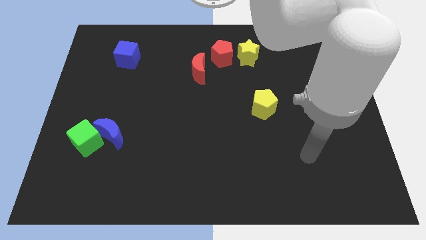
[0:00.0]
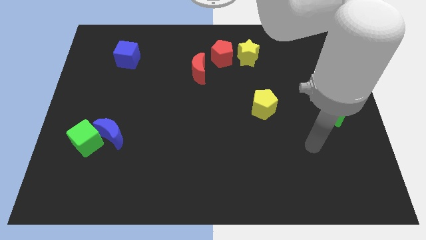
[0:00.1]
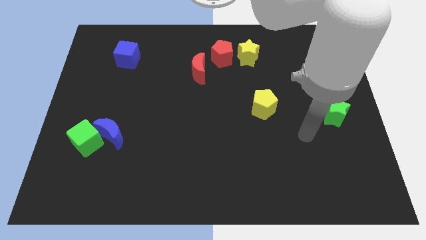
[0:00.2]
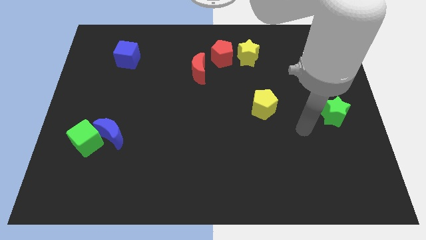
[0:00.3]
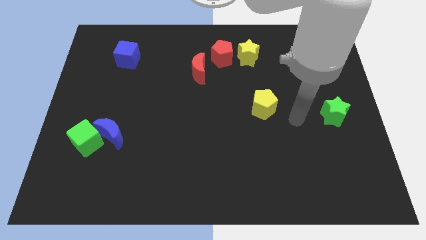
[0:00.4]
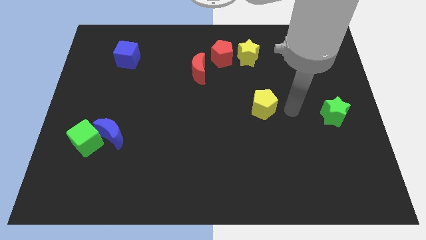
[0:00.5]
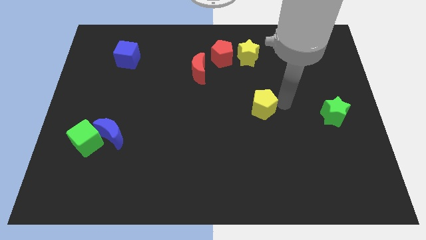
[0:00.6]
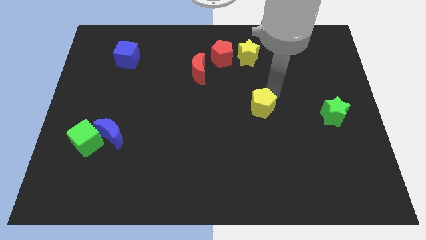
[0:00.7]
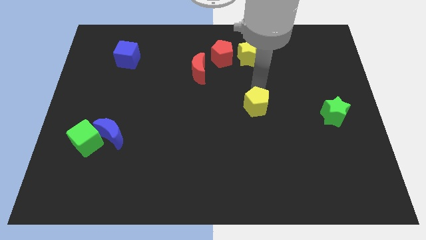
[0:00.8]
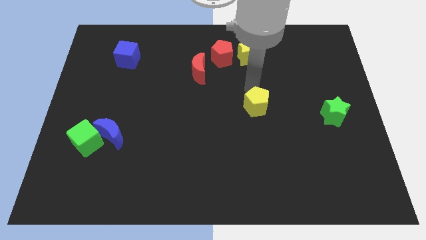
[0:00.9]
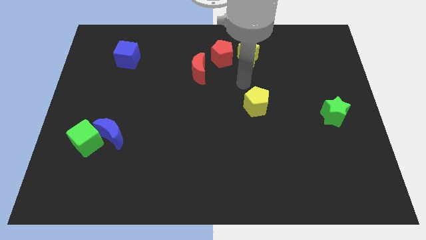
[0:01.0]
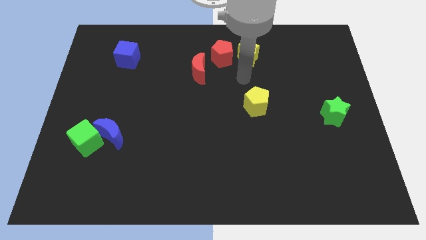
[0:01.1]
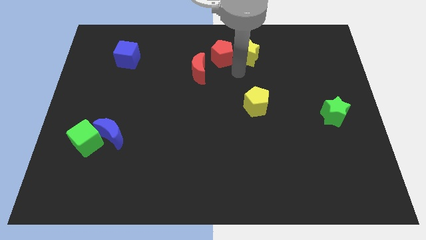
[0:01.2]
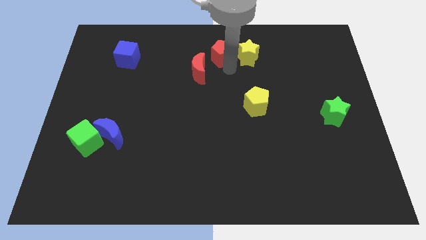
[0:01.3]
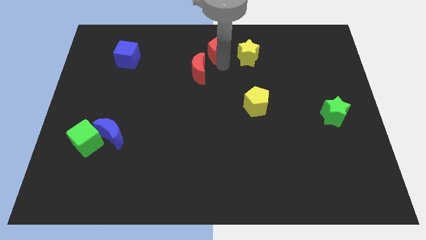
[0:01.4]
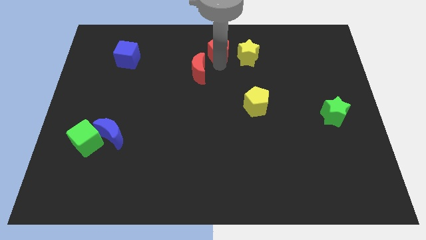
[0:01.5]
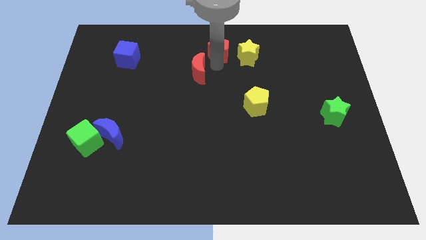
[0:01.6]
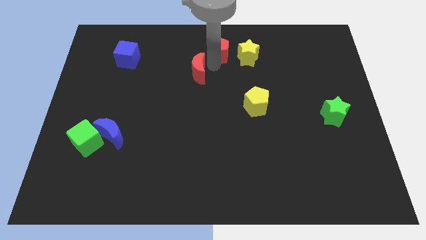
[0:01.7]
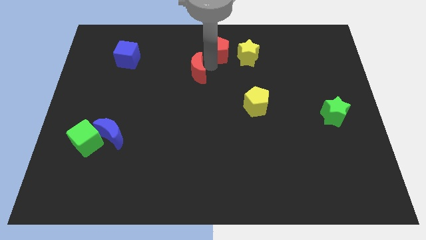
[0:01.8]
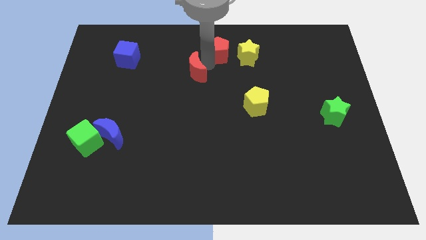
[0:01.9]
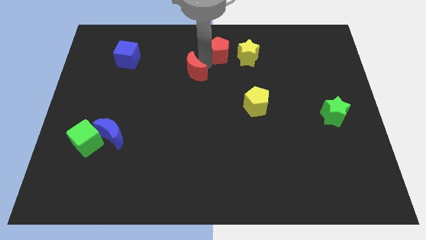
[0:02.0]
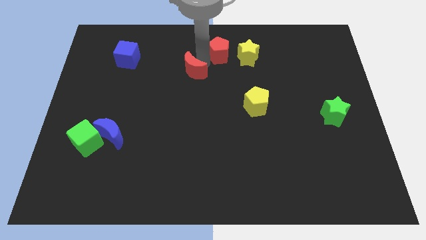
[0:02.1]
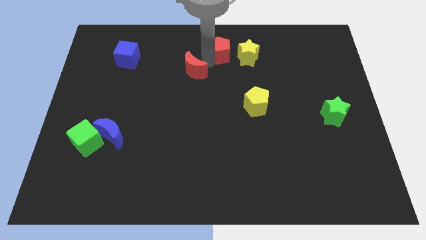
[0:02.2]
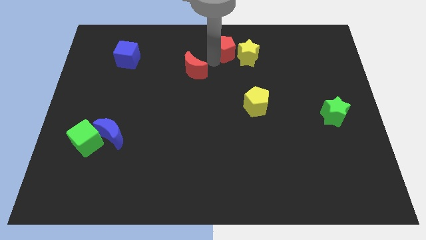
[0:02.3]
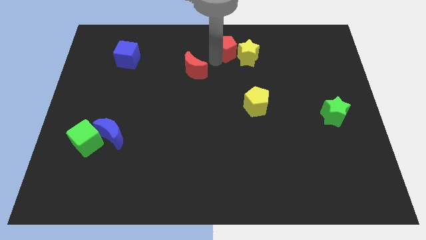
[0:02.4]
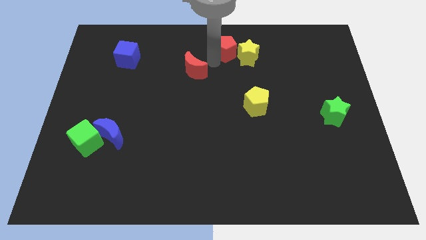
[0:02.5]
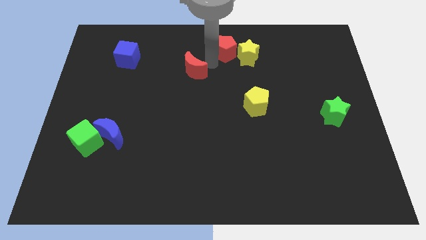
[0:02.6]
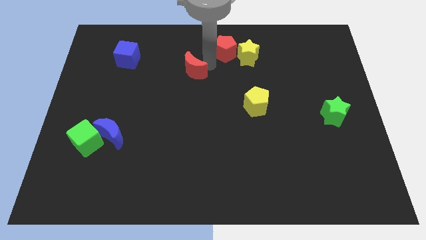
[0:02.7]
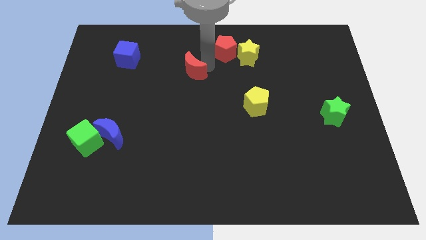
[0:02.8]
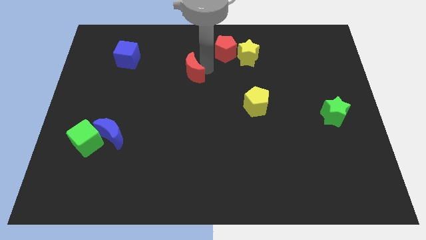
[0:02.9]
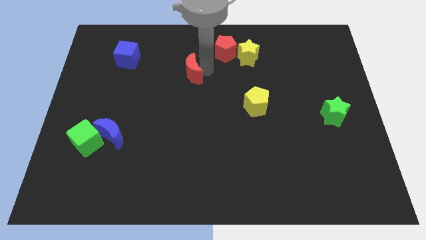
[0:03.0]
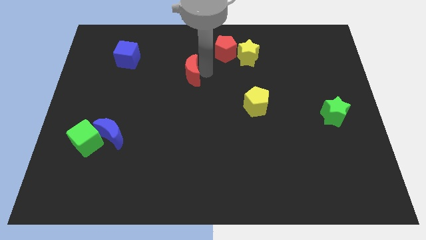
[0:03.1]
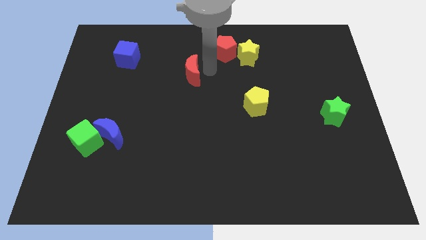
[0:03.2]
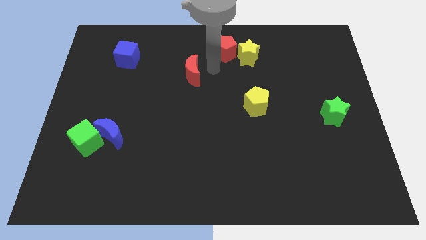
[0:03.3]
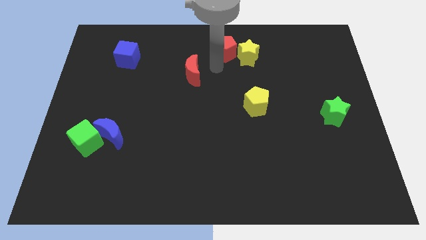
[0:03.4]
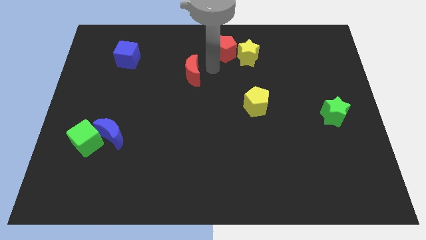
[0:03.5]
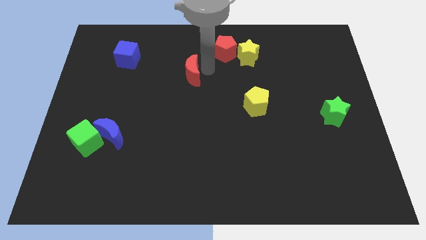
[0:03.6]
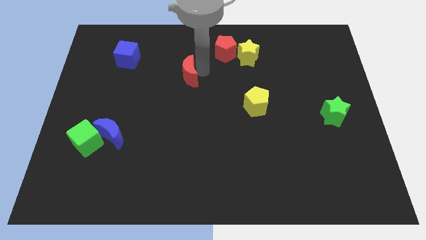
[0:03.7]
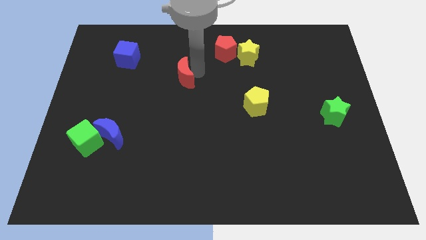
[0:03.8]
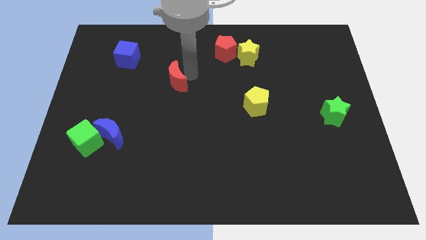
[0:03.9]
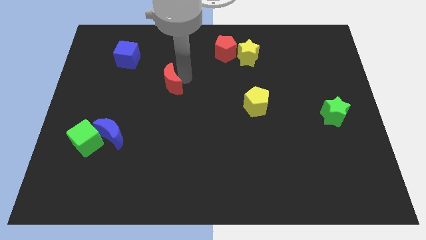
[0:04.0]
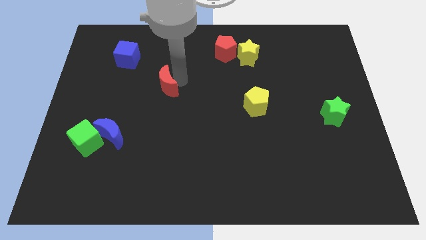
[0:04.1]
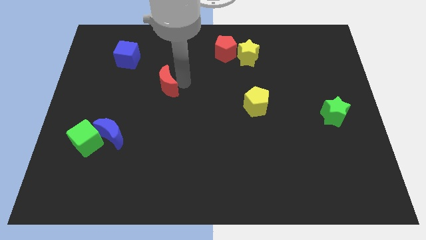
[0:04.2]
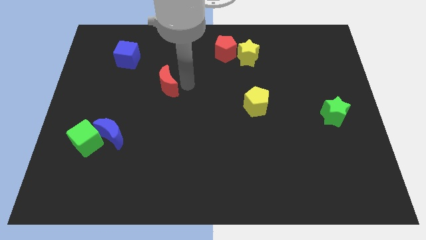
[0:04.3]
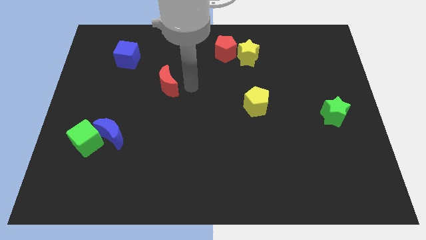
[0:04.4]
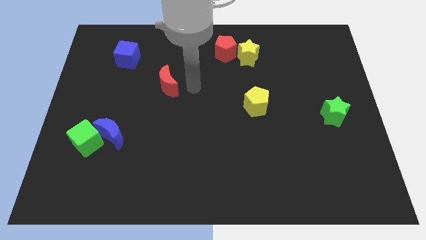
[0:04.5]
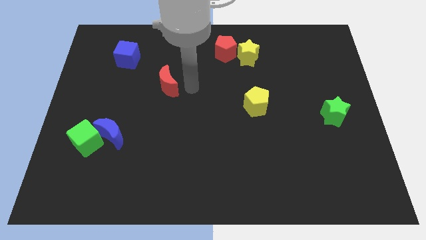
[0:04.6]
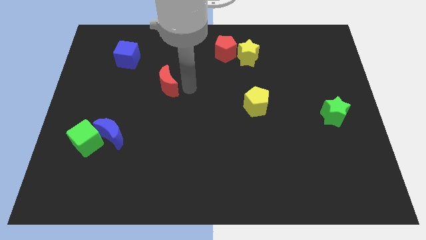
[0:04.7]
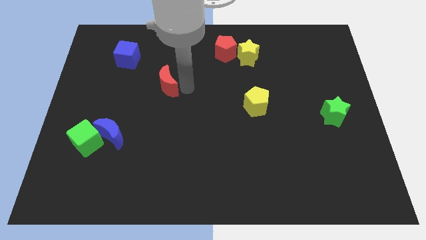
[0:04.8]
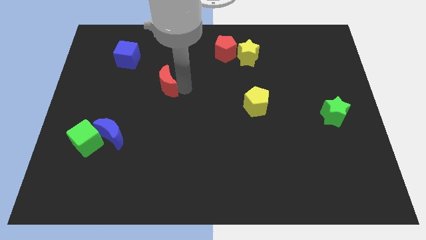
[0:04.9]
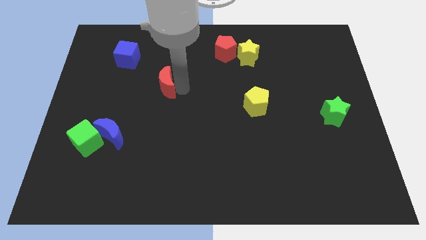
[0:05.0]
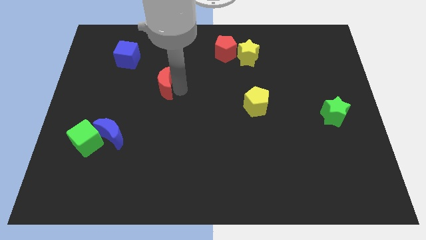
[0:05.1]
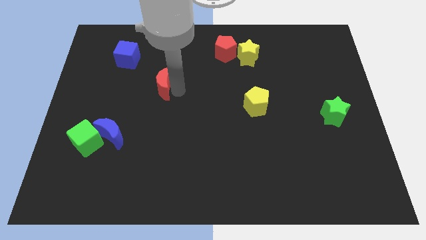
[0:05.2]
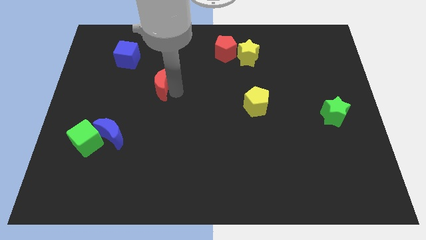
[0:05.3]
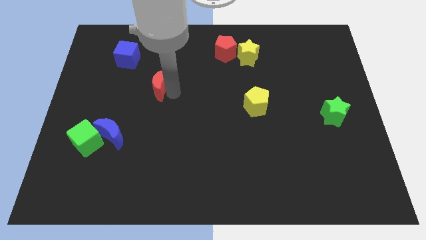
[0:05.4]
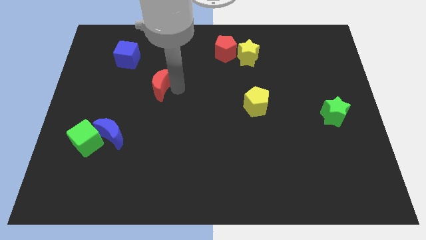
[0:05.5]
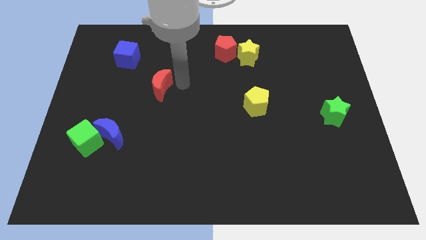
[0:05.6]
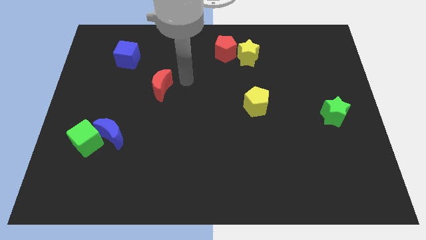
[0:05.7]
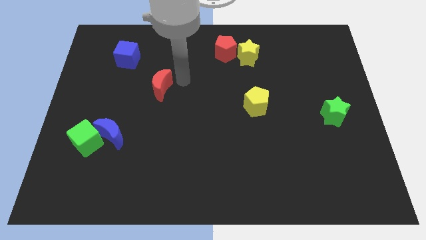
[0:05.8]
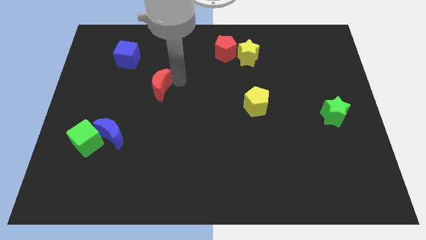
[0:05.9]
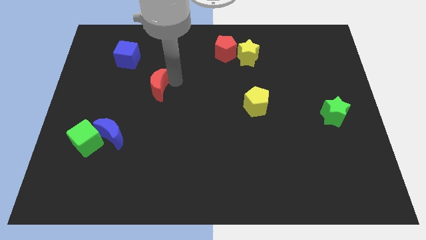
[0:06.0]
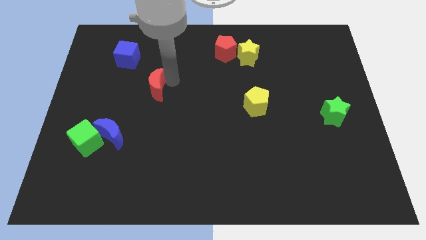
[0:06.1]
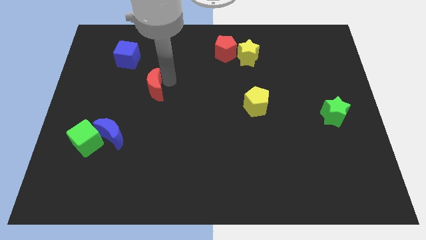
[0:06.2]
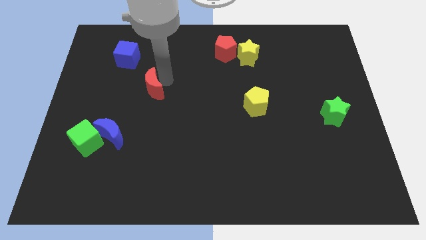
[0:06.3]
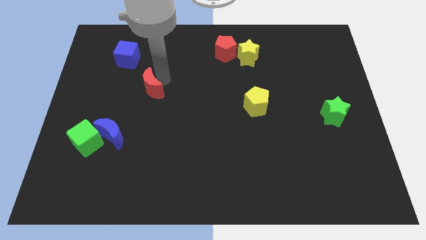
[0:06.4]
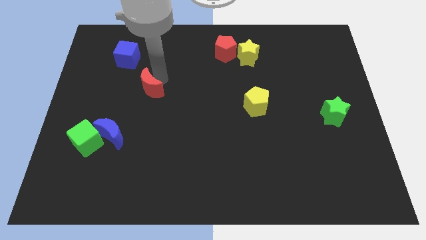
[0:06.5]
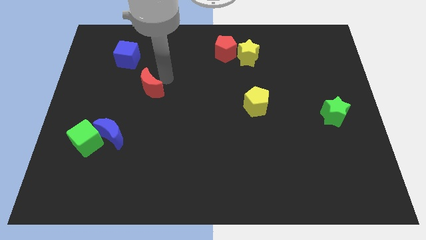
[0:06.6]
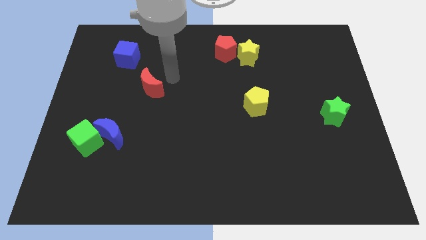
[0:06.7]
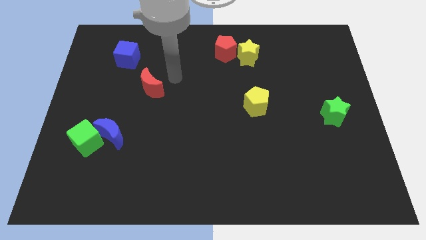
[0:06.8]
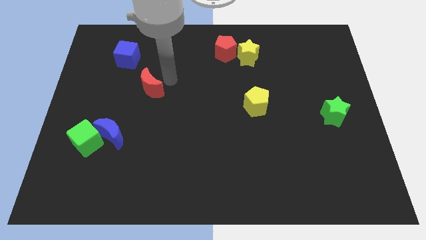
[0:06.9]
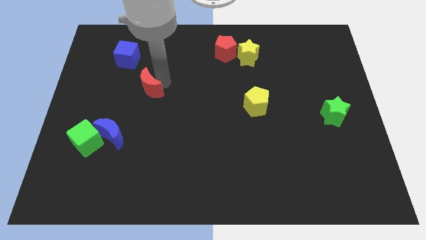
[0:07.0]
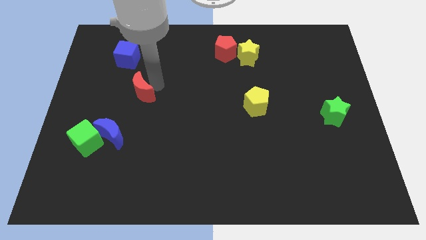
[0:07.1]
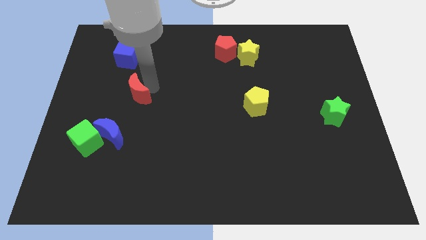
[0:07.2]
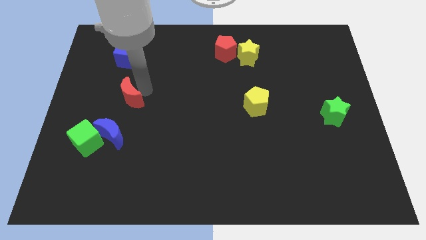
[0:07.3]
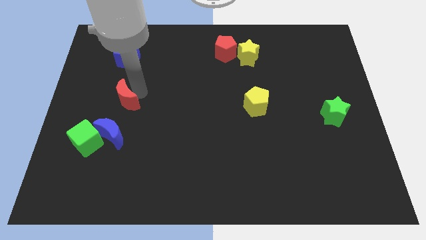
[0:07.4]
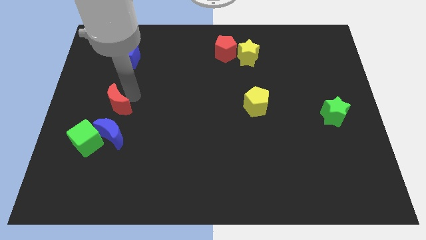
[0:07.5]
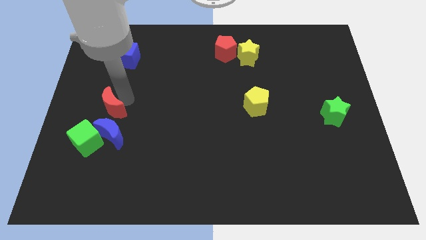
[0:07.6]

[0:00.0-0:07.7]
slide the red moon to the top left of the blue moon
